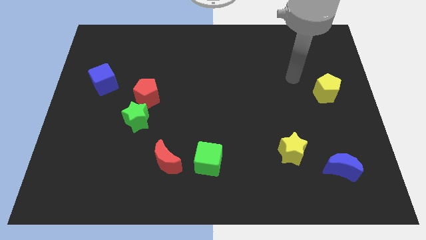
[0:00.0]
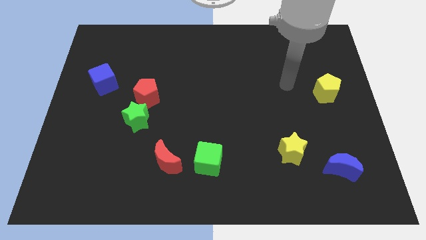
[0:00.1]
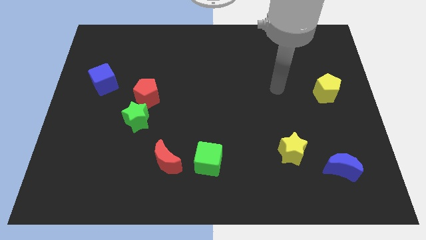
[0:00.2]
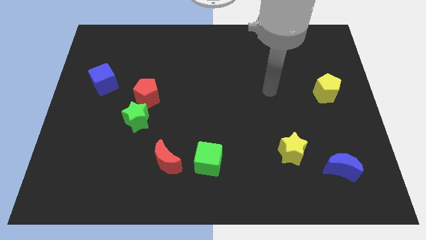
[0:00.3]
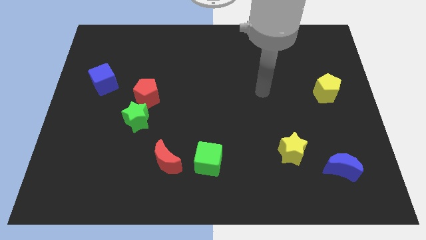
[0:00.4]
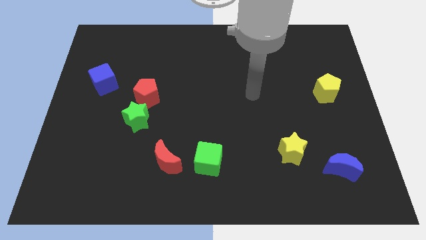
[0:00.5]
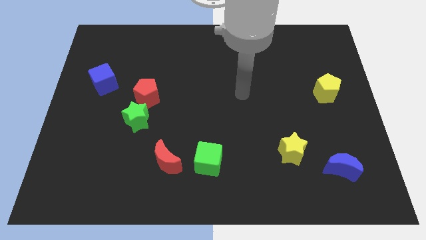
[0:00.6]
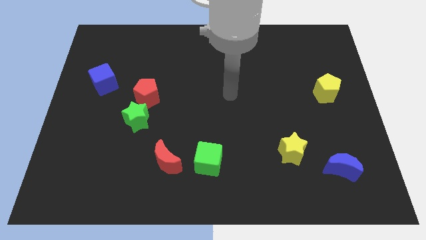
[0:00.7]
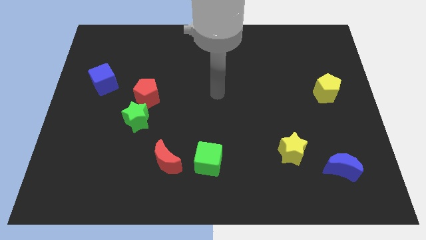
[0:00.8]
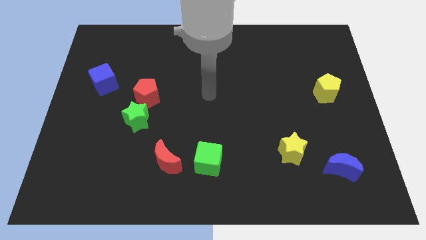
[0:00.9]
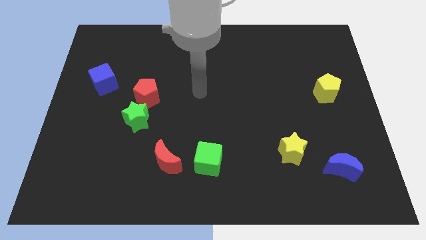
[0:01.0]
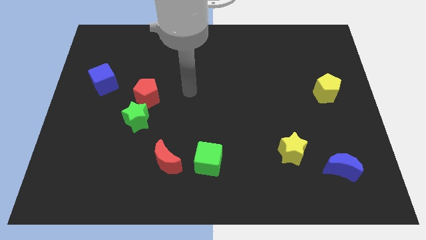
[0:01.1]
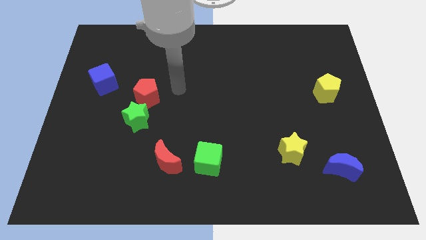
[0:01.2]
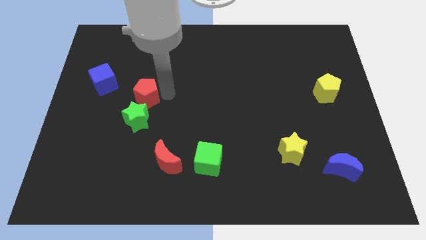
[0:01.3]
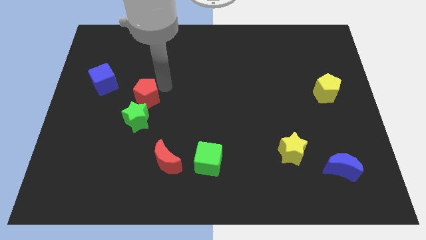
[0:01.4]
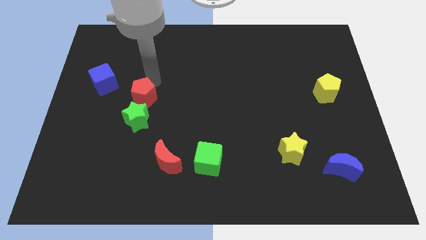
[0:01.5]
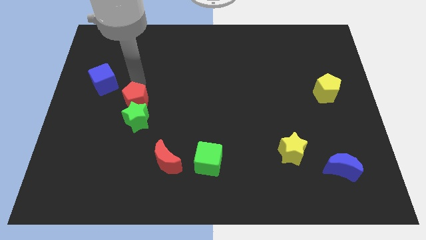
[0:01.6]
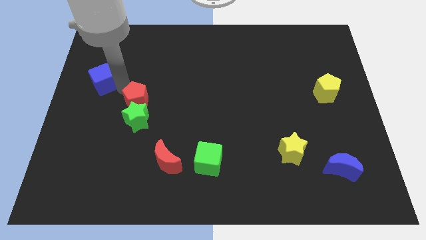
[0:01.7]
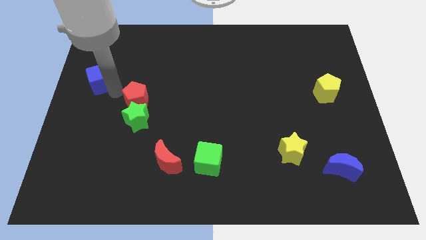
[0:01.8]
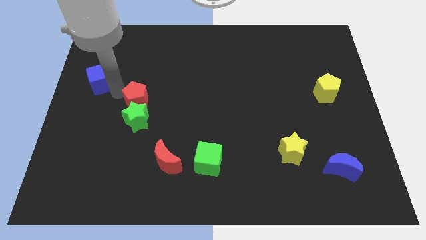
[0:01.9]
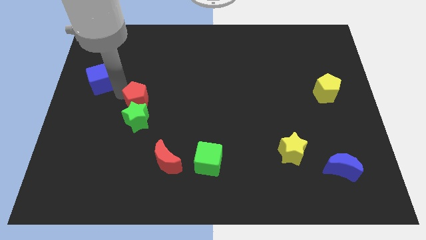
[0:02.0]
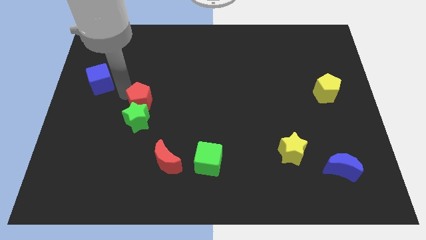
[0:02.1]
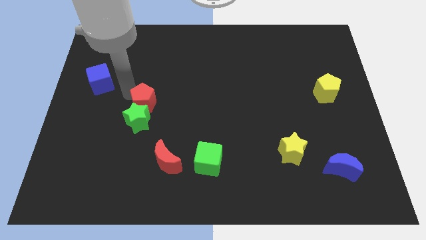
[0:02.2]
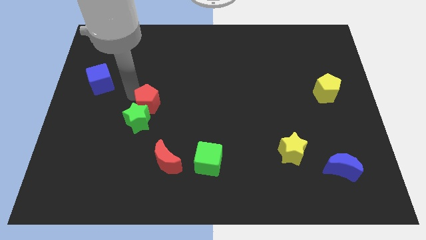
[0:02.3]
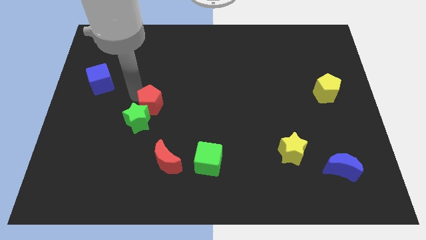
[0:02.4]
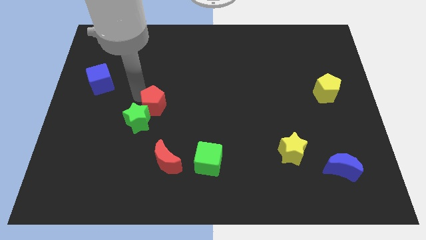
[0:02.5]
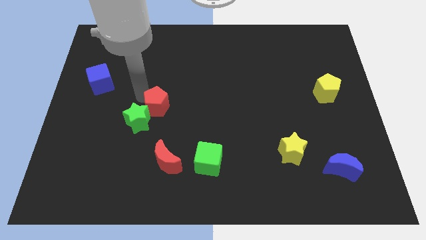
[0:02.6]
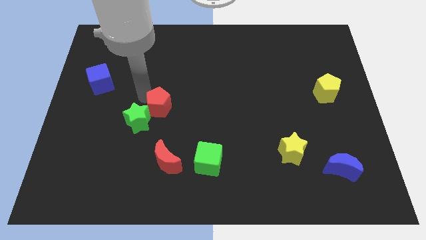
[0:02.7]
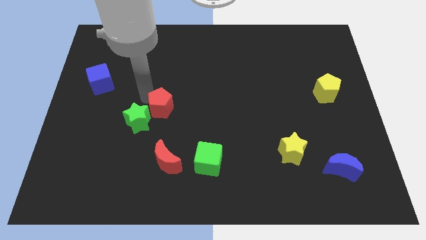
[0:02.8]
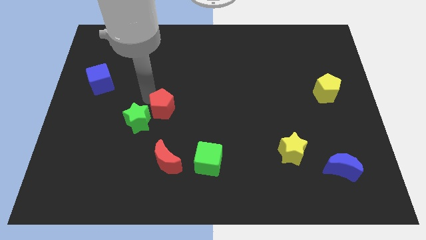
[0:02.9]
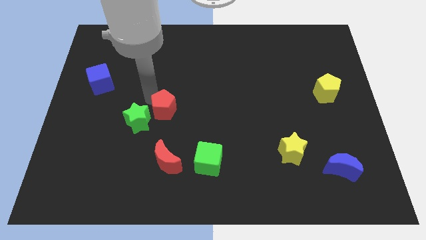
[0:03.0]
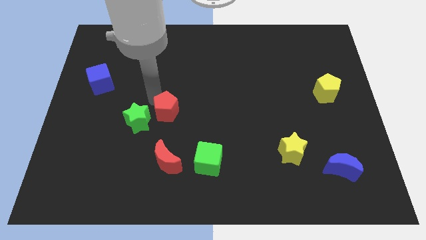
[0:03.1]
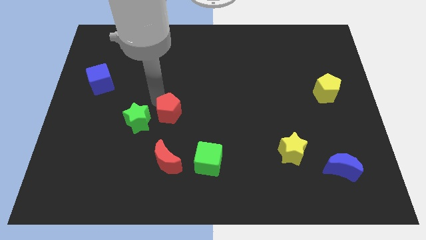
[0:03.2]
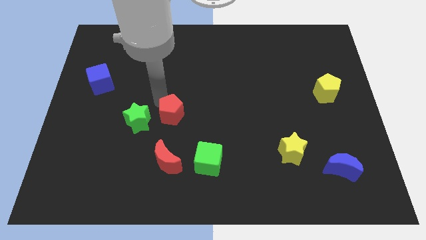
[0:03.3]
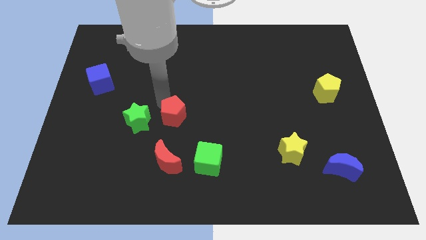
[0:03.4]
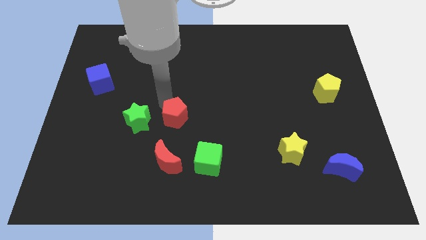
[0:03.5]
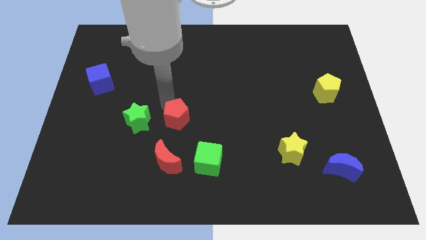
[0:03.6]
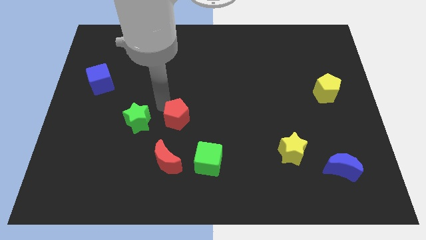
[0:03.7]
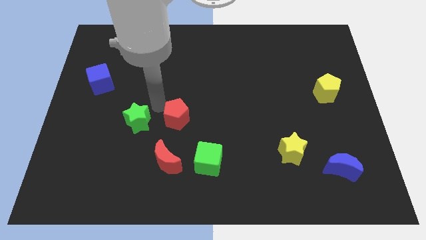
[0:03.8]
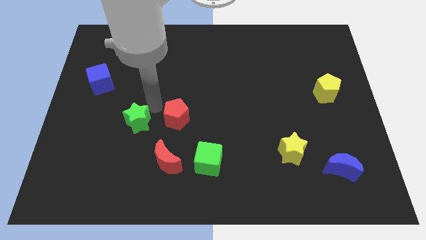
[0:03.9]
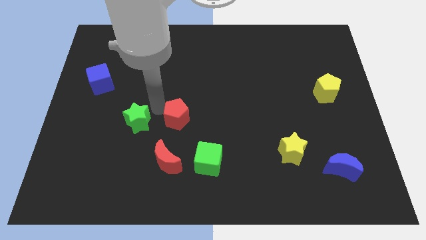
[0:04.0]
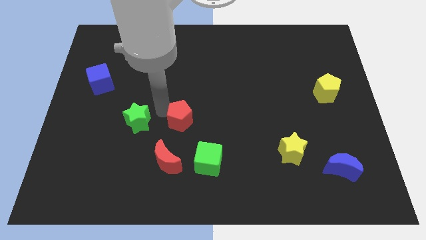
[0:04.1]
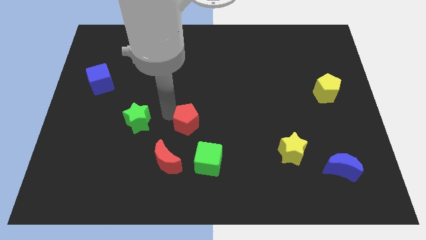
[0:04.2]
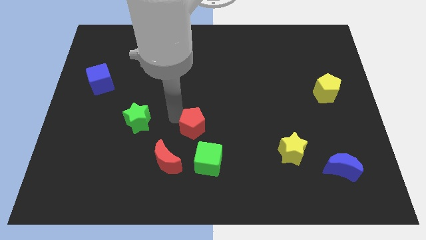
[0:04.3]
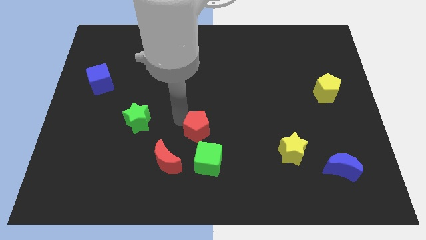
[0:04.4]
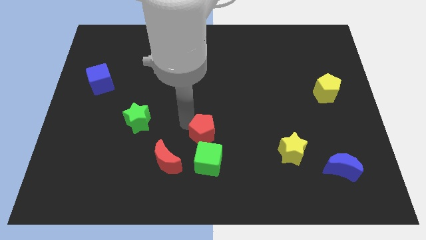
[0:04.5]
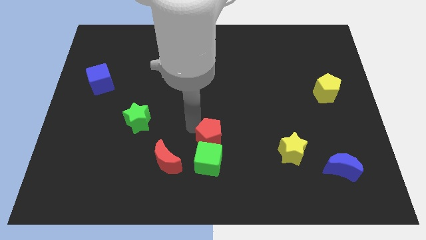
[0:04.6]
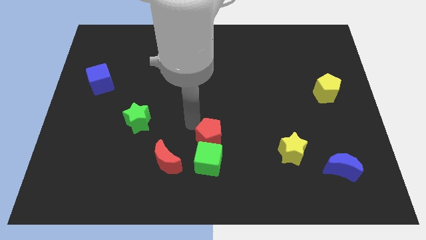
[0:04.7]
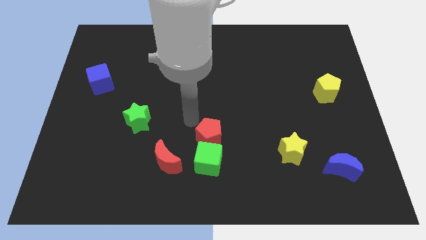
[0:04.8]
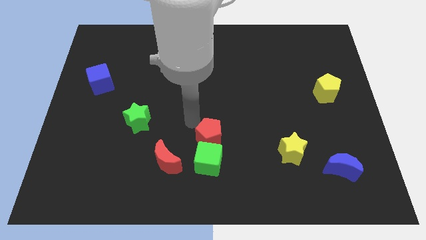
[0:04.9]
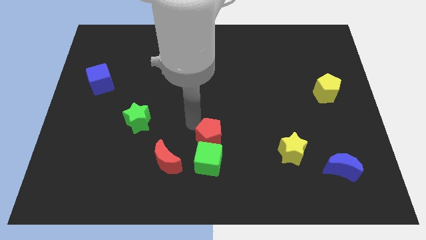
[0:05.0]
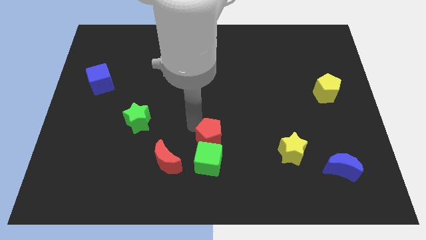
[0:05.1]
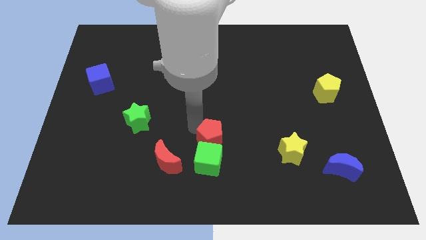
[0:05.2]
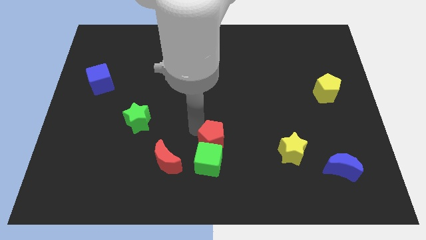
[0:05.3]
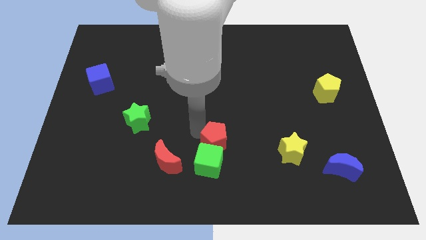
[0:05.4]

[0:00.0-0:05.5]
slide the red pentagon down and to the right

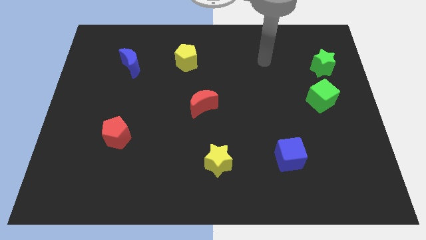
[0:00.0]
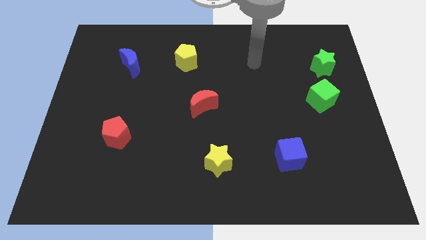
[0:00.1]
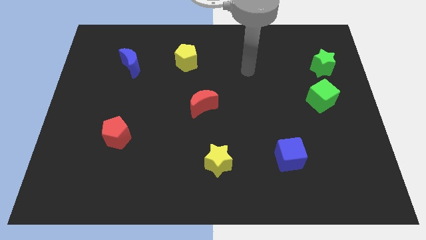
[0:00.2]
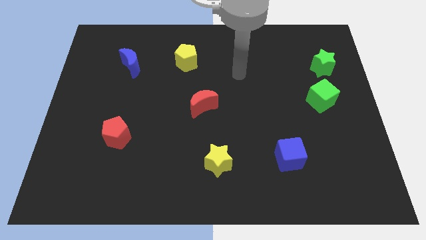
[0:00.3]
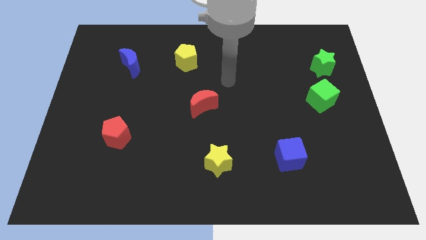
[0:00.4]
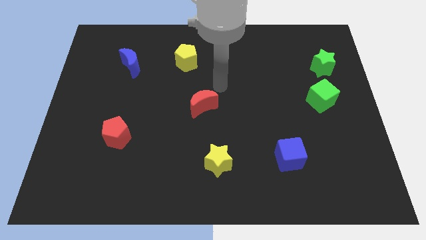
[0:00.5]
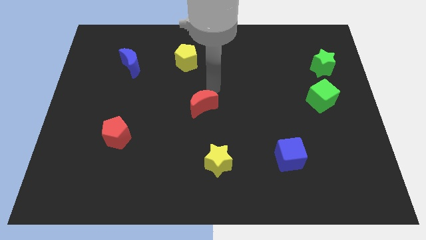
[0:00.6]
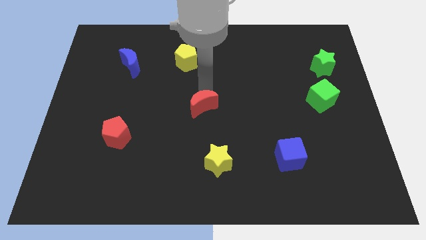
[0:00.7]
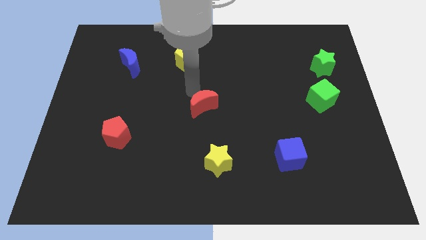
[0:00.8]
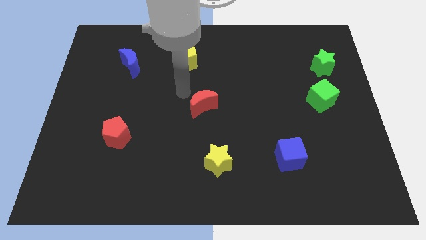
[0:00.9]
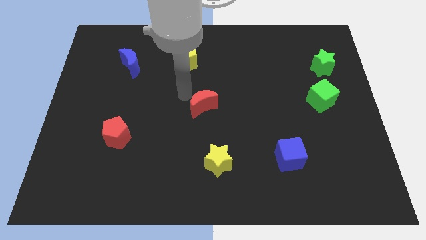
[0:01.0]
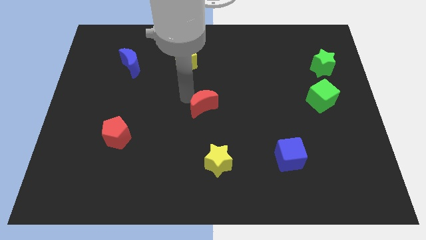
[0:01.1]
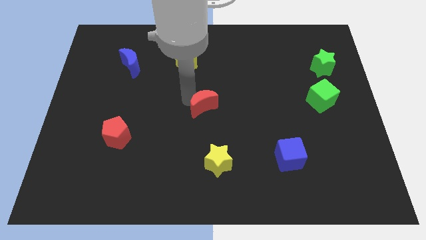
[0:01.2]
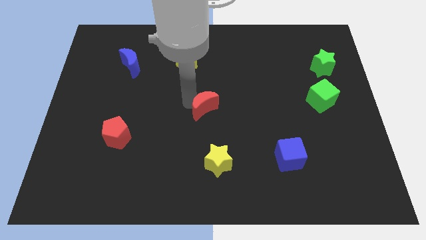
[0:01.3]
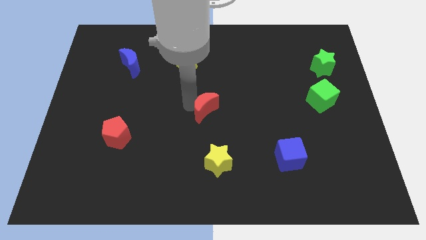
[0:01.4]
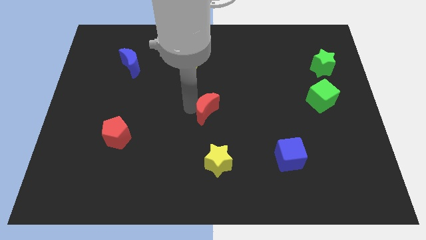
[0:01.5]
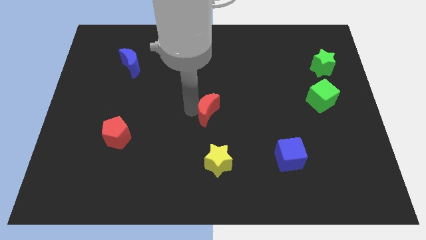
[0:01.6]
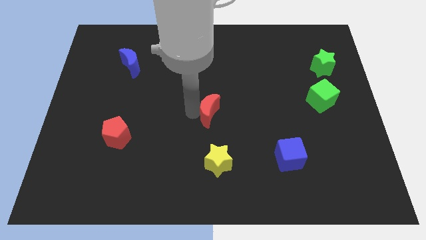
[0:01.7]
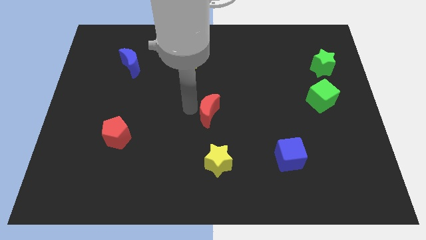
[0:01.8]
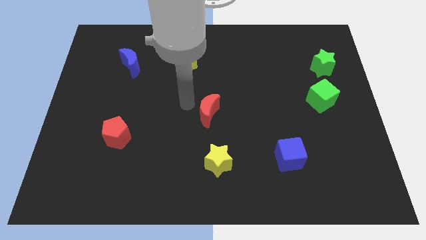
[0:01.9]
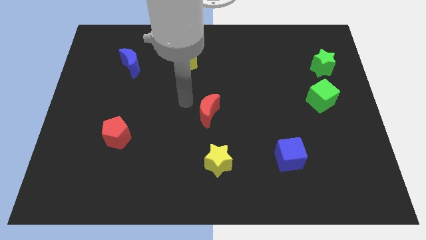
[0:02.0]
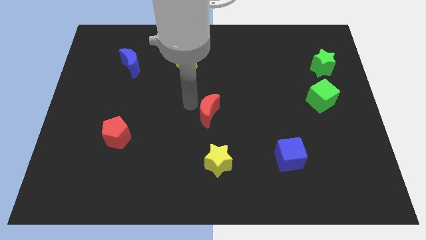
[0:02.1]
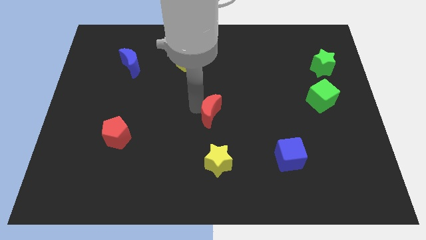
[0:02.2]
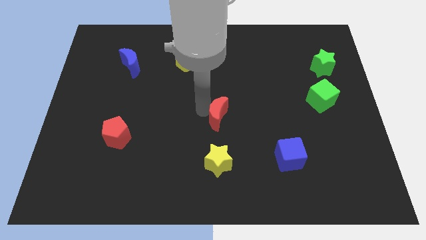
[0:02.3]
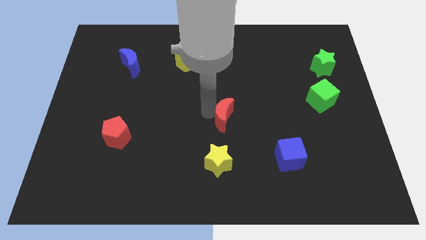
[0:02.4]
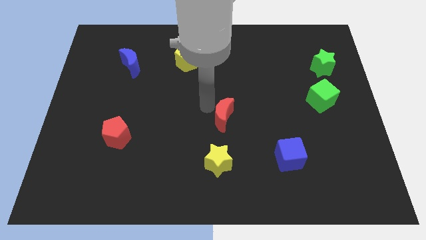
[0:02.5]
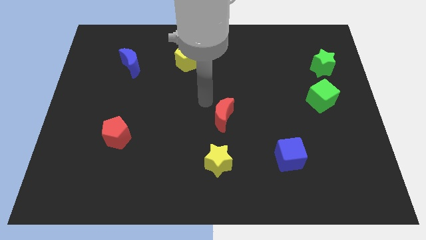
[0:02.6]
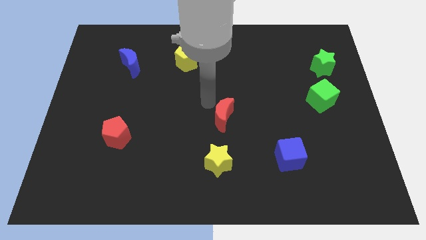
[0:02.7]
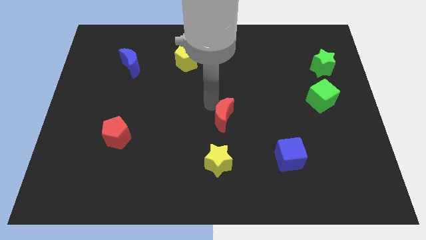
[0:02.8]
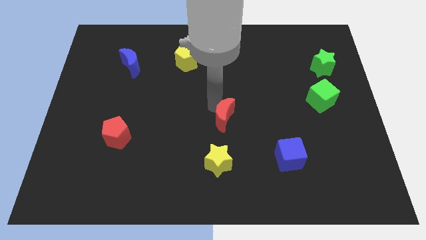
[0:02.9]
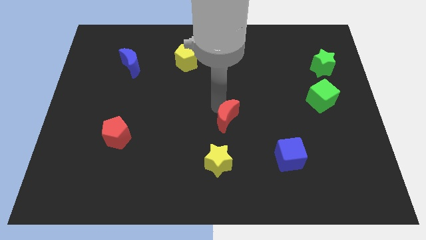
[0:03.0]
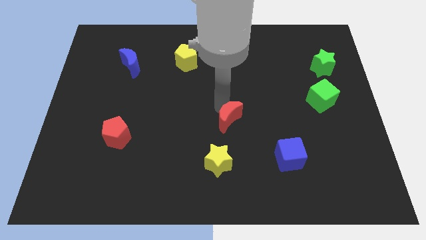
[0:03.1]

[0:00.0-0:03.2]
push the red moon downwards and to the right diagonally a little
